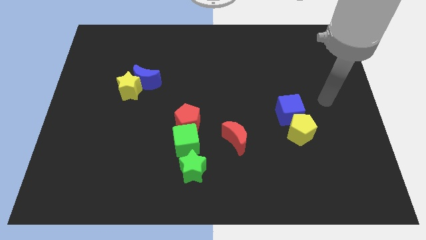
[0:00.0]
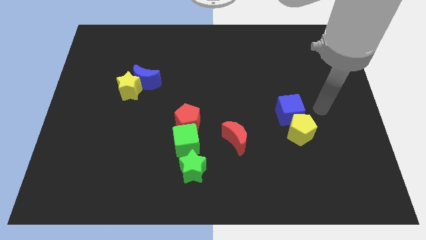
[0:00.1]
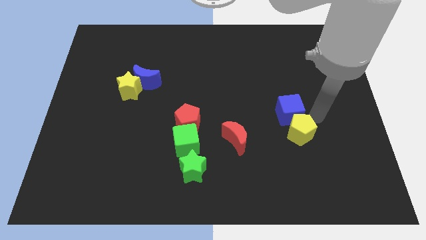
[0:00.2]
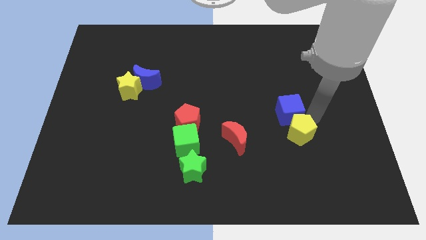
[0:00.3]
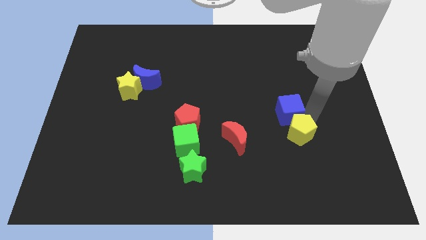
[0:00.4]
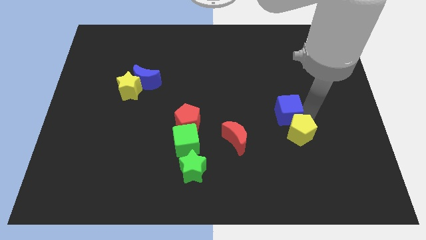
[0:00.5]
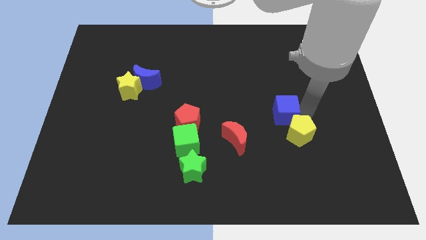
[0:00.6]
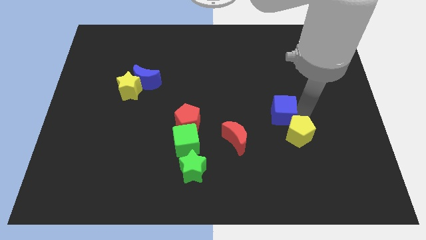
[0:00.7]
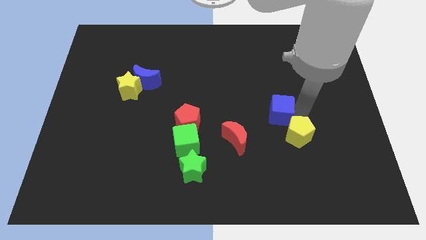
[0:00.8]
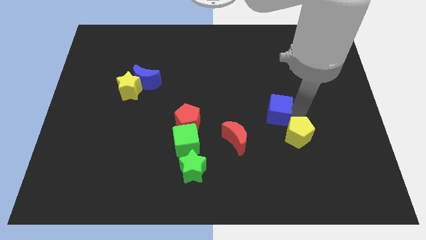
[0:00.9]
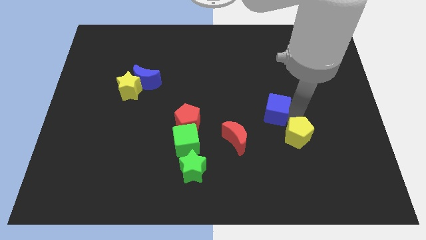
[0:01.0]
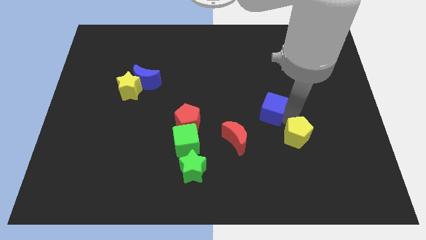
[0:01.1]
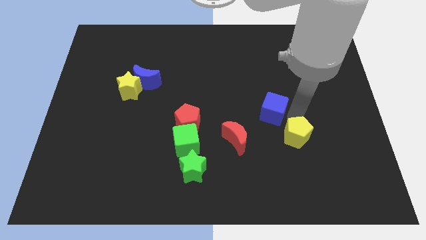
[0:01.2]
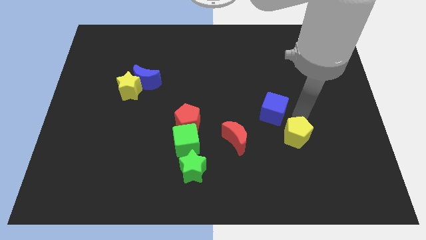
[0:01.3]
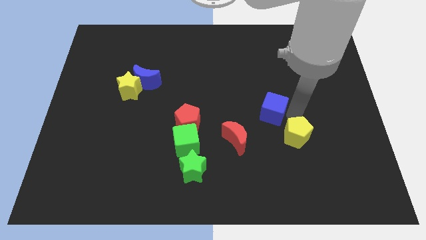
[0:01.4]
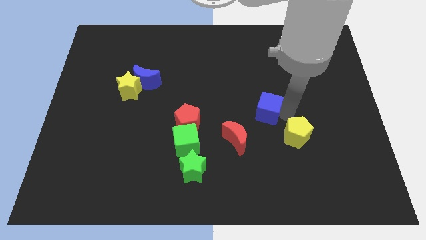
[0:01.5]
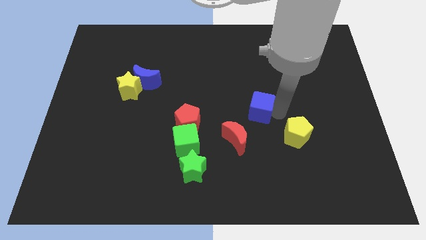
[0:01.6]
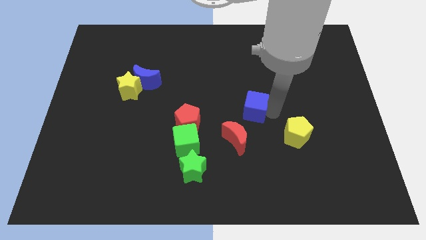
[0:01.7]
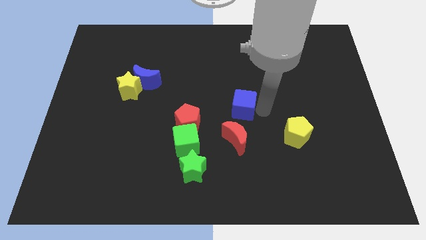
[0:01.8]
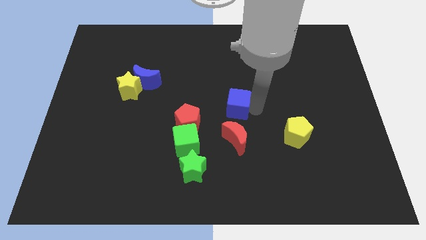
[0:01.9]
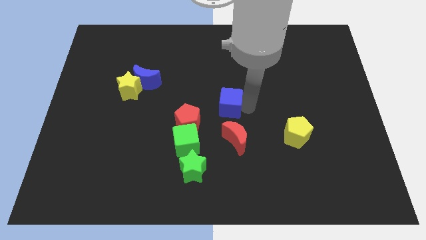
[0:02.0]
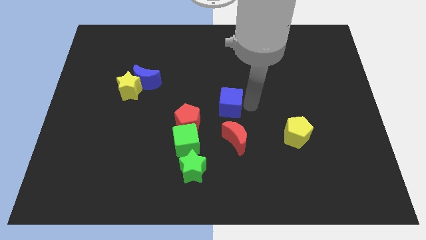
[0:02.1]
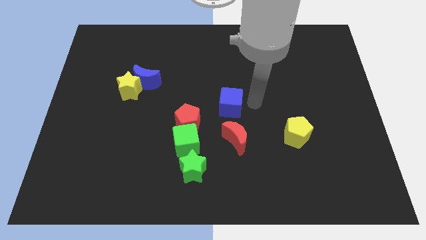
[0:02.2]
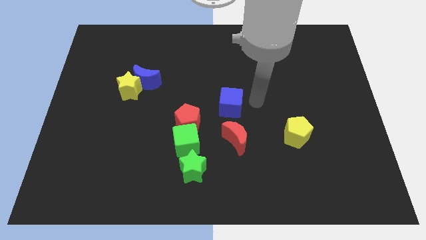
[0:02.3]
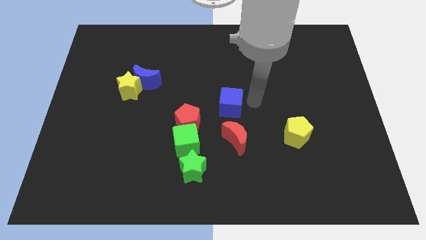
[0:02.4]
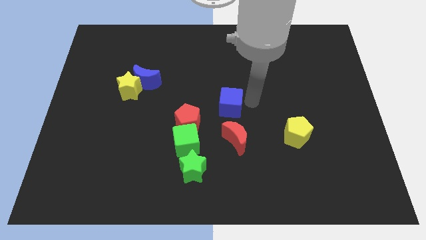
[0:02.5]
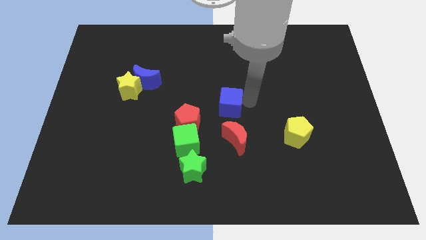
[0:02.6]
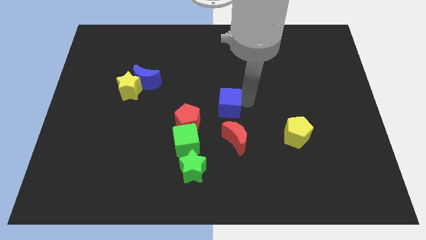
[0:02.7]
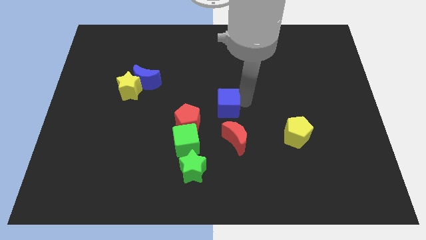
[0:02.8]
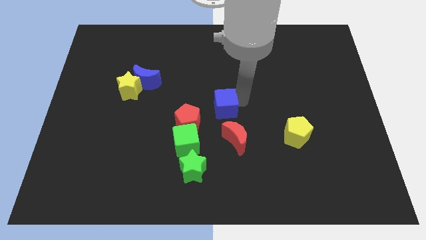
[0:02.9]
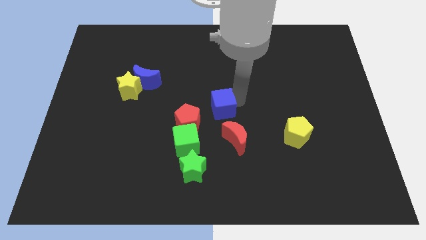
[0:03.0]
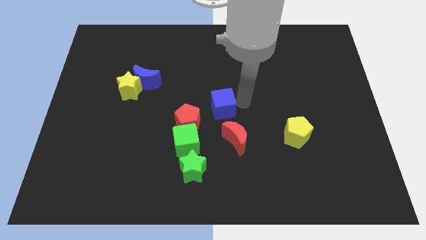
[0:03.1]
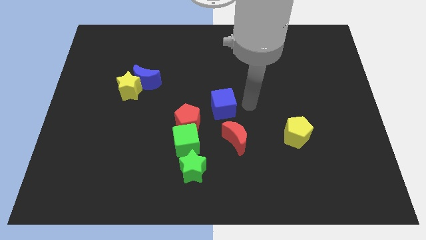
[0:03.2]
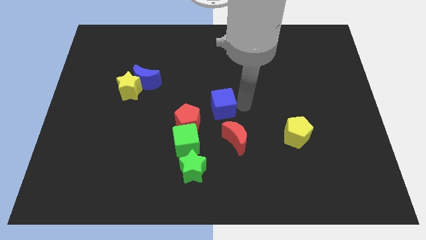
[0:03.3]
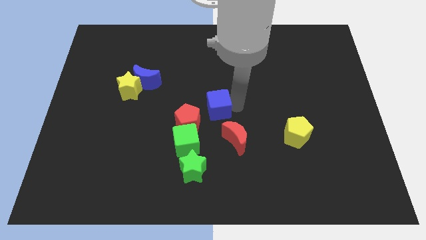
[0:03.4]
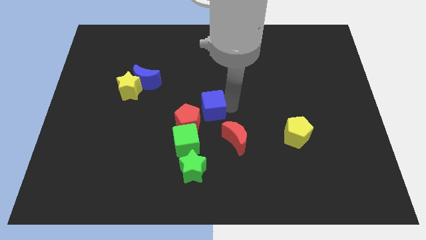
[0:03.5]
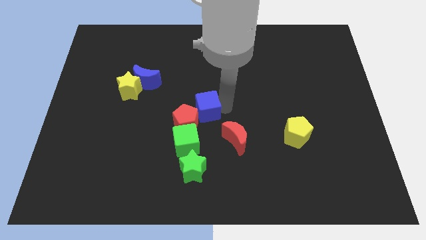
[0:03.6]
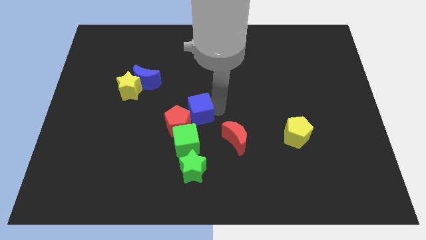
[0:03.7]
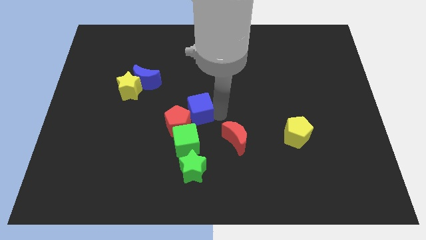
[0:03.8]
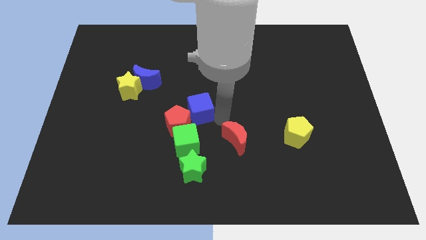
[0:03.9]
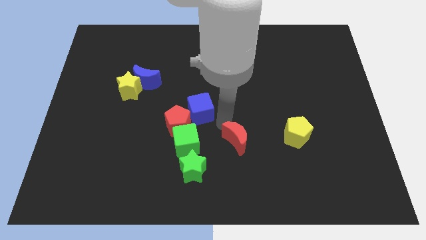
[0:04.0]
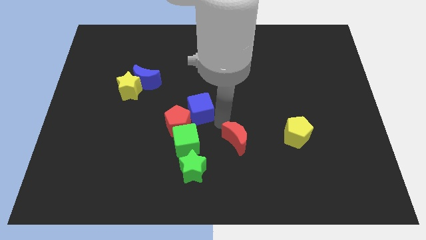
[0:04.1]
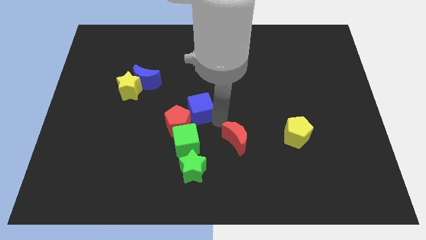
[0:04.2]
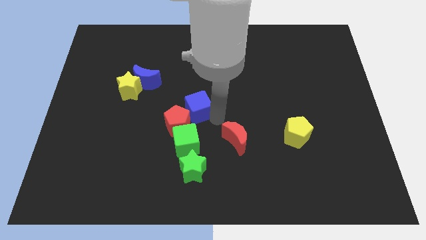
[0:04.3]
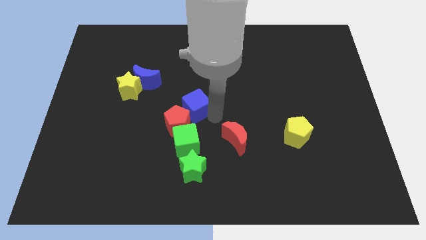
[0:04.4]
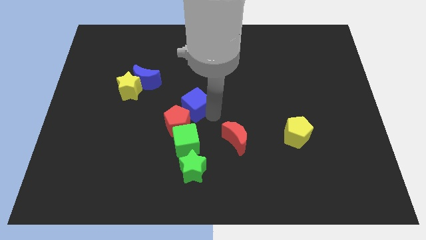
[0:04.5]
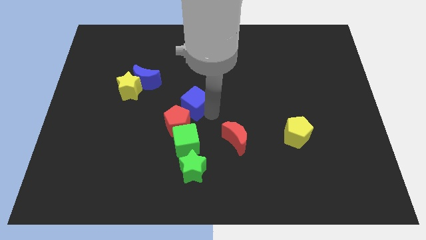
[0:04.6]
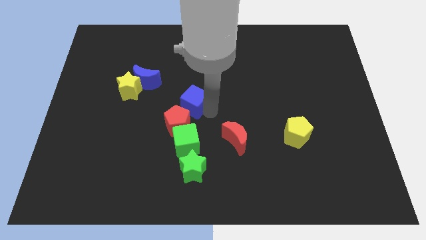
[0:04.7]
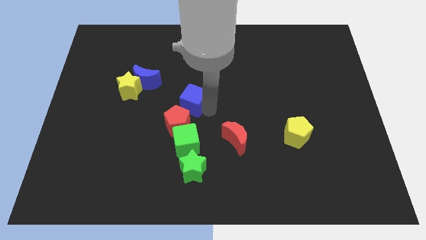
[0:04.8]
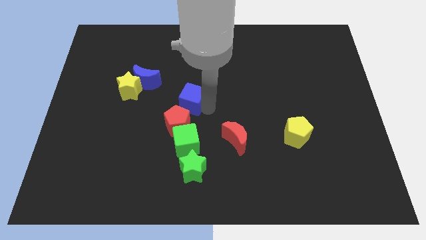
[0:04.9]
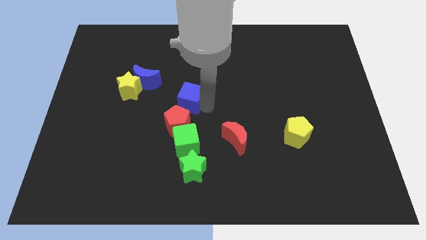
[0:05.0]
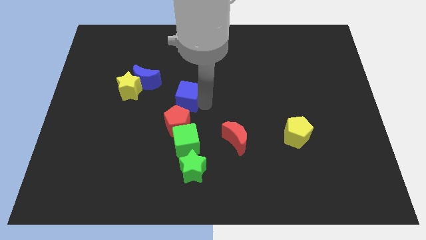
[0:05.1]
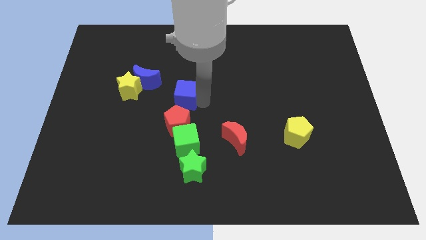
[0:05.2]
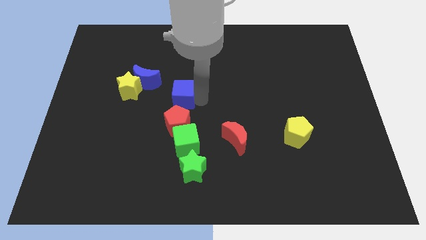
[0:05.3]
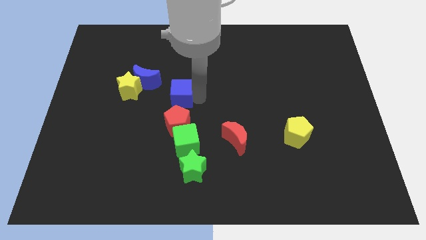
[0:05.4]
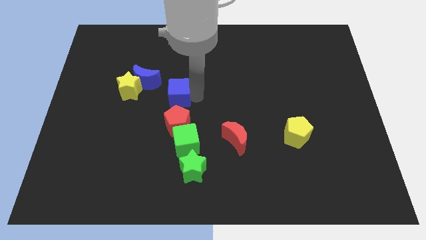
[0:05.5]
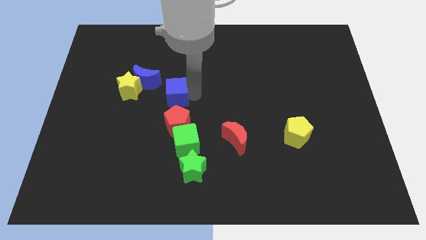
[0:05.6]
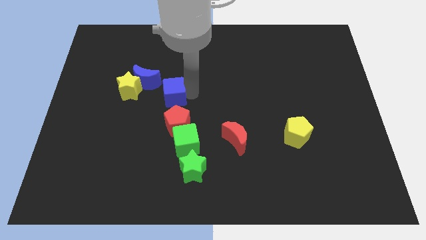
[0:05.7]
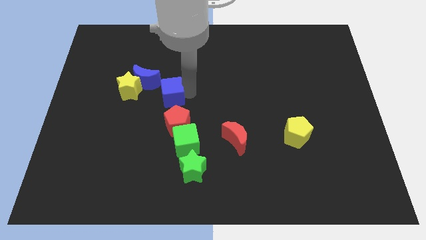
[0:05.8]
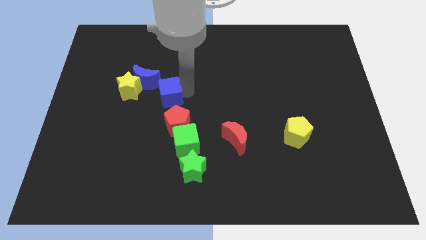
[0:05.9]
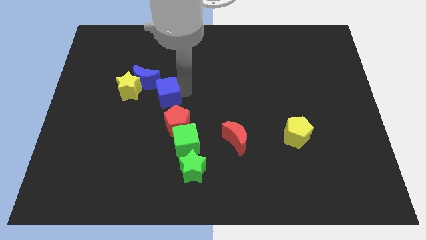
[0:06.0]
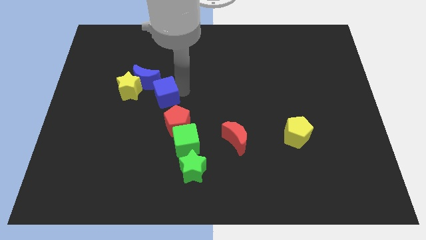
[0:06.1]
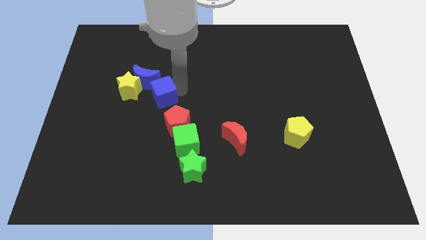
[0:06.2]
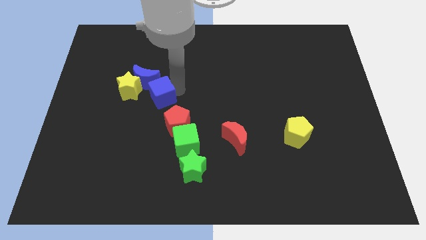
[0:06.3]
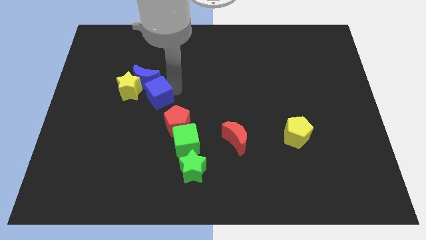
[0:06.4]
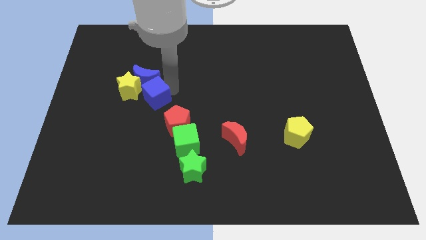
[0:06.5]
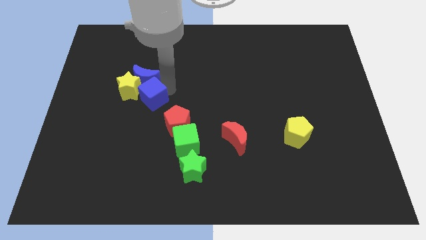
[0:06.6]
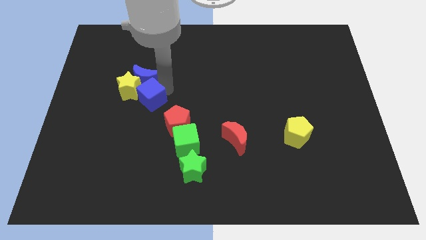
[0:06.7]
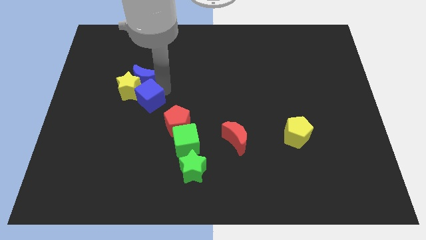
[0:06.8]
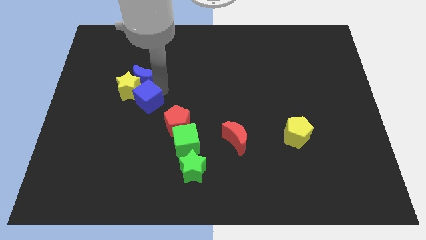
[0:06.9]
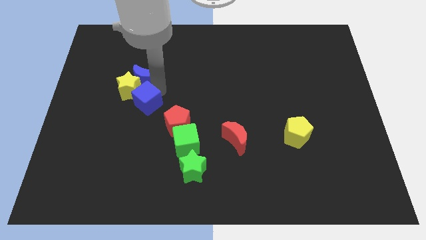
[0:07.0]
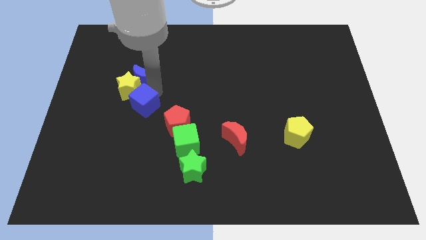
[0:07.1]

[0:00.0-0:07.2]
slide the blue cube to the bottom of the yellow star

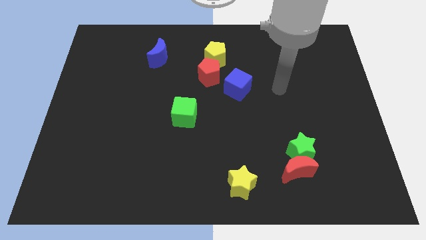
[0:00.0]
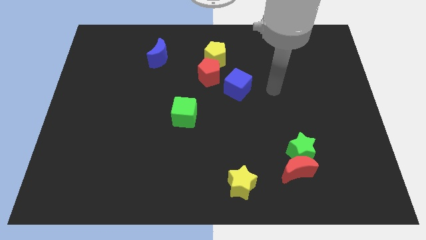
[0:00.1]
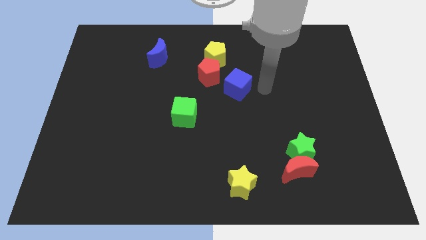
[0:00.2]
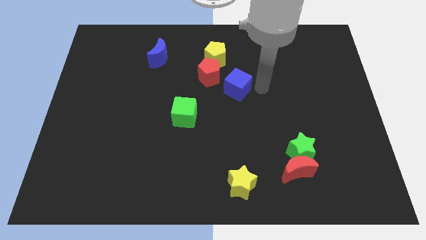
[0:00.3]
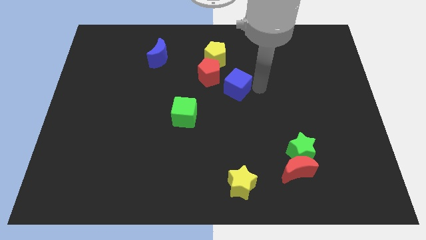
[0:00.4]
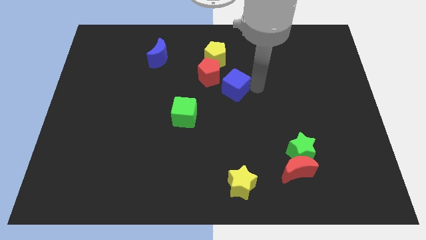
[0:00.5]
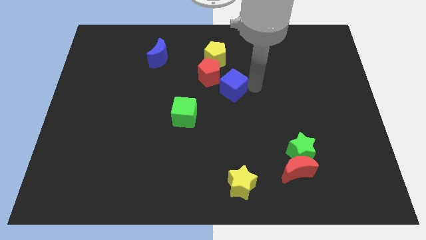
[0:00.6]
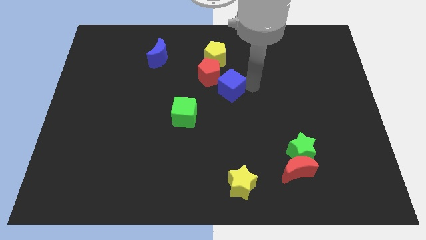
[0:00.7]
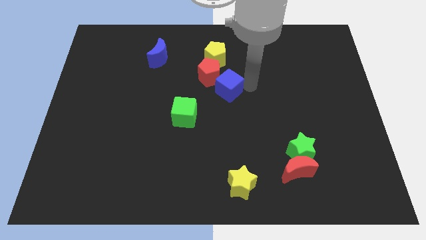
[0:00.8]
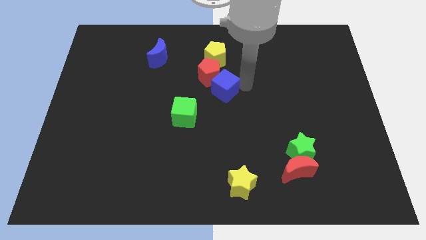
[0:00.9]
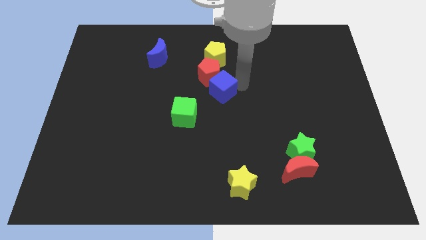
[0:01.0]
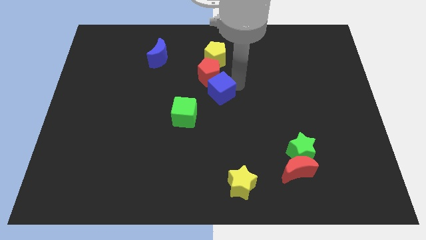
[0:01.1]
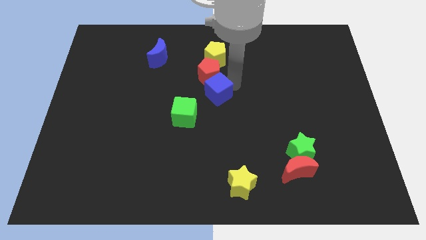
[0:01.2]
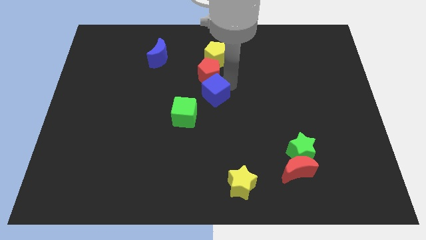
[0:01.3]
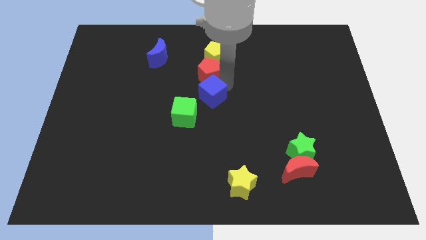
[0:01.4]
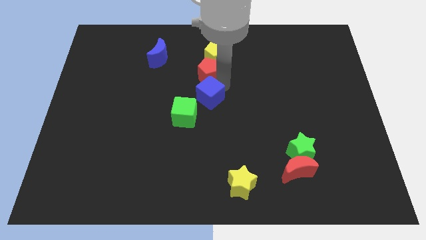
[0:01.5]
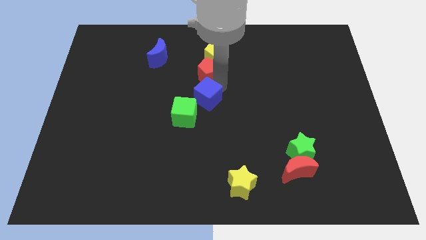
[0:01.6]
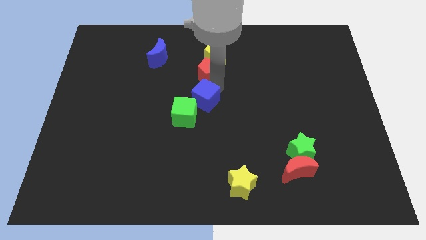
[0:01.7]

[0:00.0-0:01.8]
slide the blue cube to the top of the green cube
